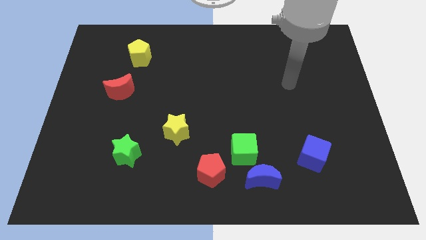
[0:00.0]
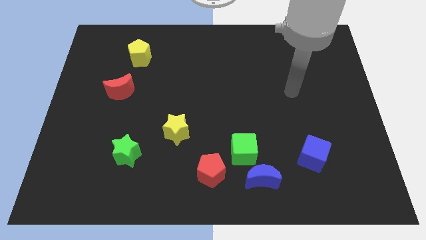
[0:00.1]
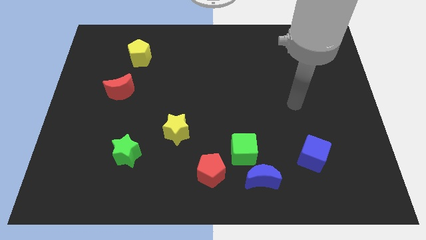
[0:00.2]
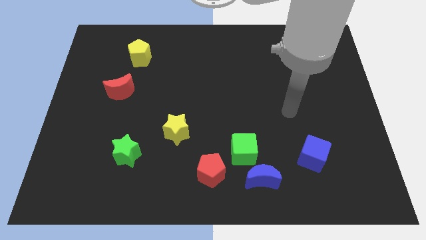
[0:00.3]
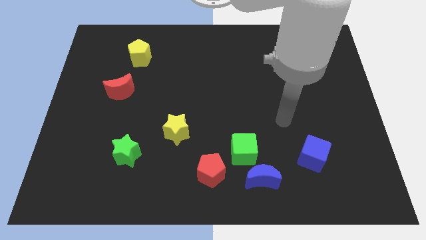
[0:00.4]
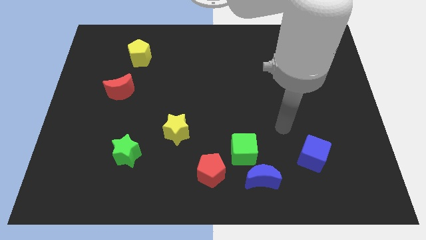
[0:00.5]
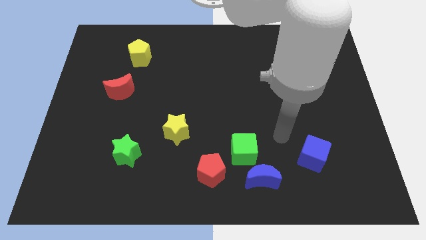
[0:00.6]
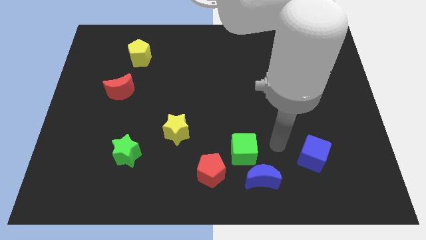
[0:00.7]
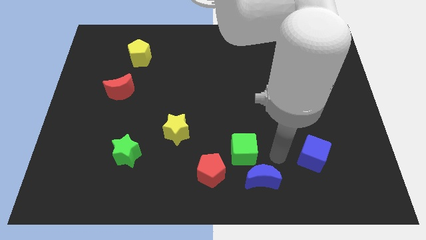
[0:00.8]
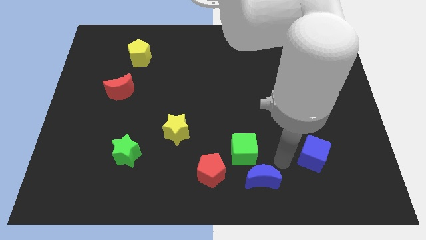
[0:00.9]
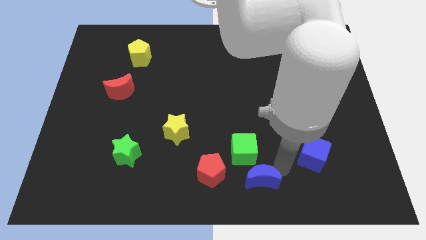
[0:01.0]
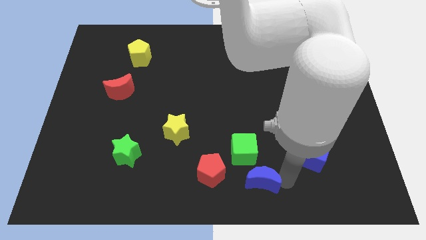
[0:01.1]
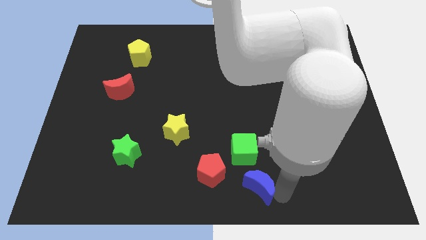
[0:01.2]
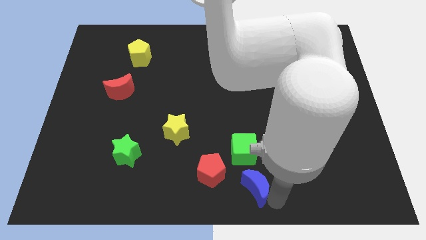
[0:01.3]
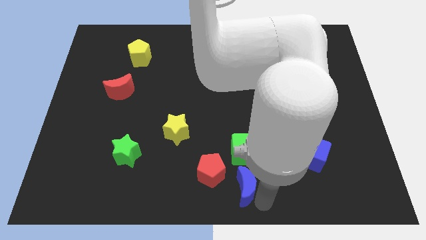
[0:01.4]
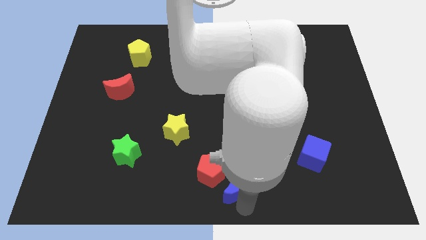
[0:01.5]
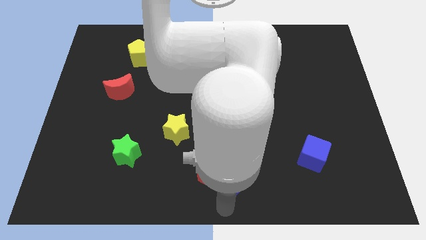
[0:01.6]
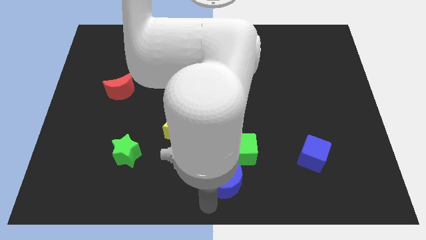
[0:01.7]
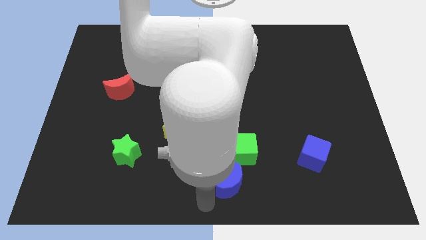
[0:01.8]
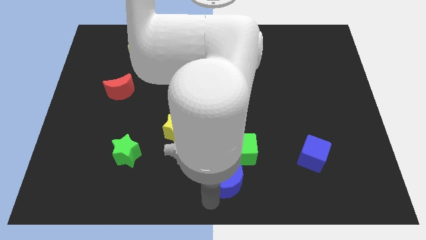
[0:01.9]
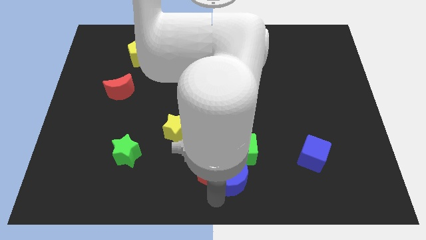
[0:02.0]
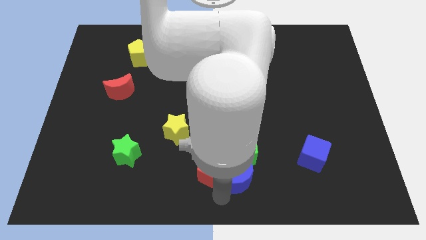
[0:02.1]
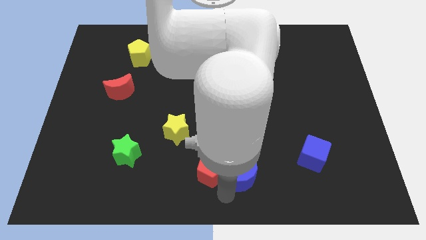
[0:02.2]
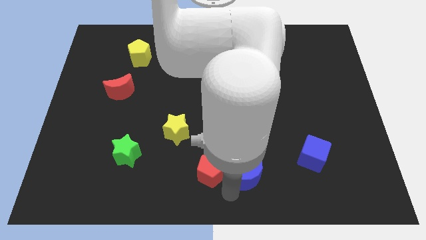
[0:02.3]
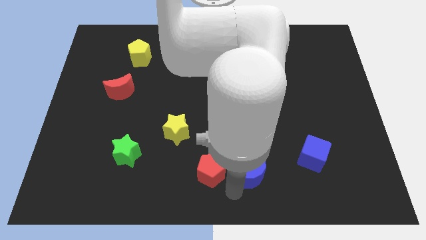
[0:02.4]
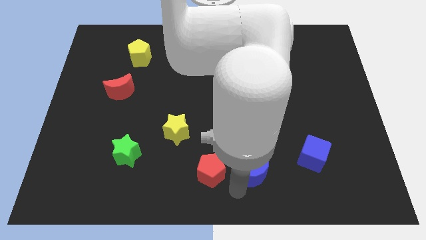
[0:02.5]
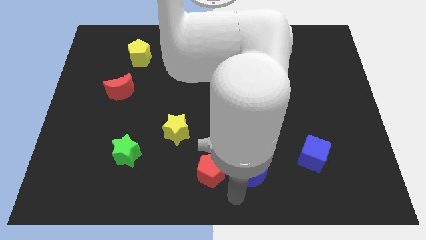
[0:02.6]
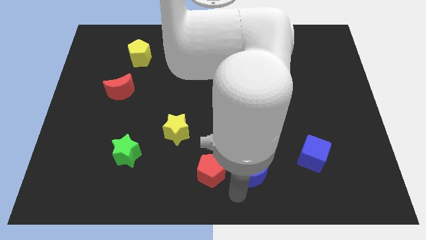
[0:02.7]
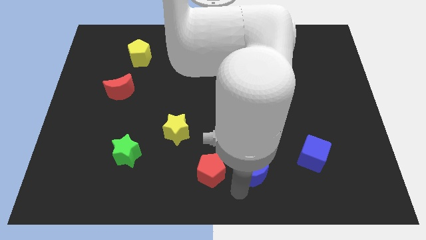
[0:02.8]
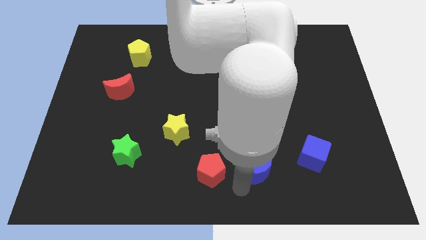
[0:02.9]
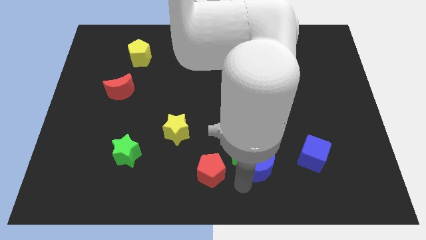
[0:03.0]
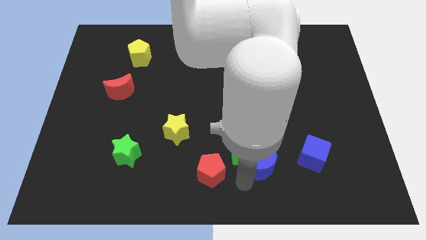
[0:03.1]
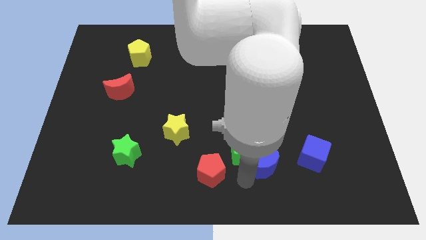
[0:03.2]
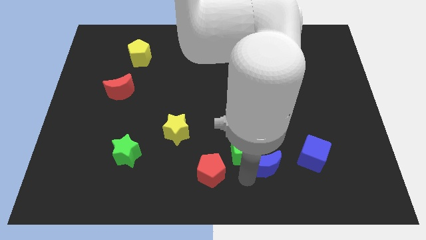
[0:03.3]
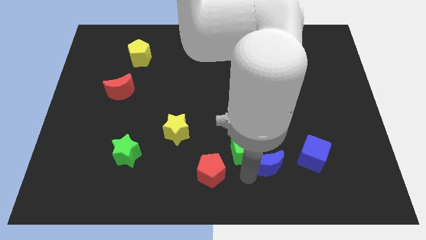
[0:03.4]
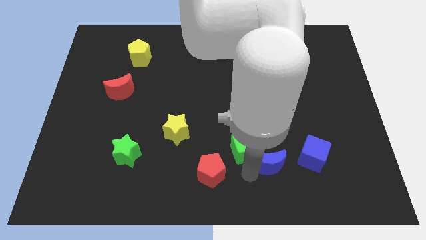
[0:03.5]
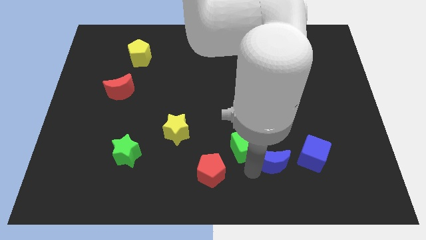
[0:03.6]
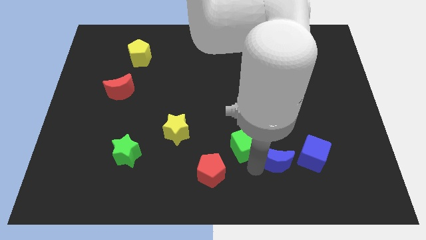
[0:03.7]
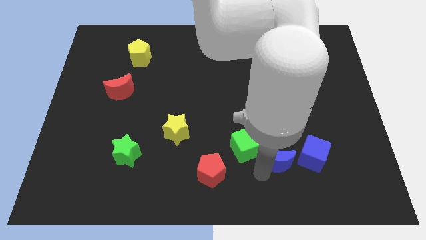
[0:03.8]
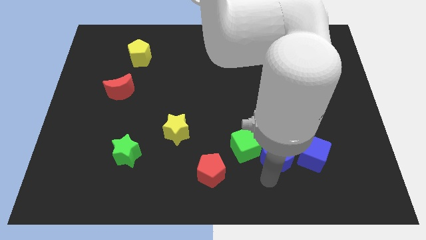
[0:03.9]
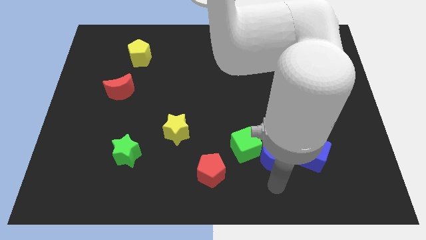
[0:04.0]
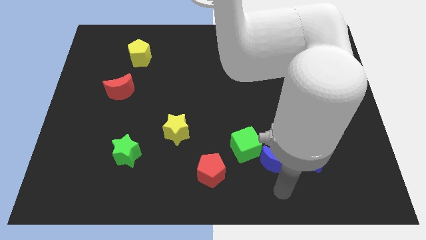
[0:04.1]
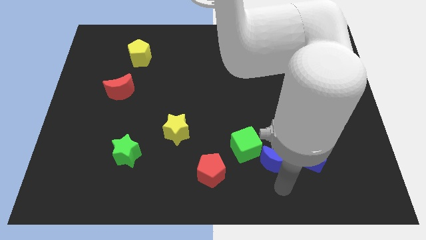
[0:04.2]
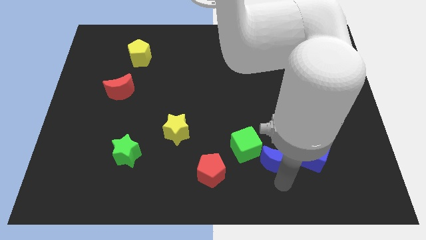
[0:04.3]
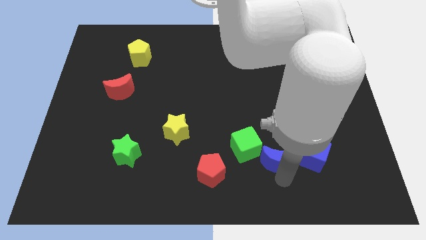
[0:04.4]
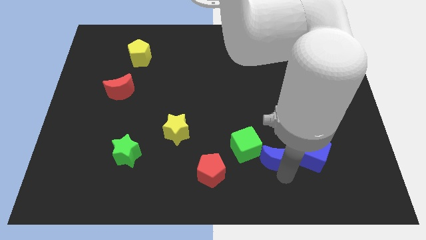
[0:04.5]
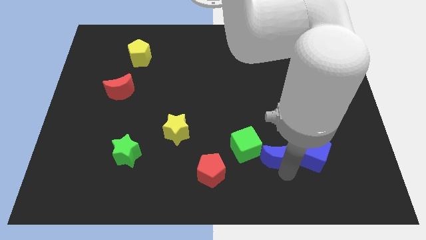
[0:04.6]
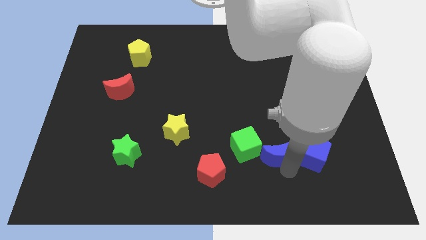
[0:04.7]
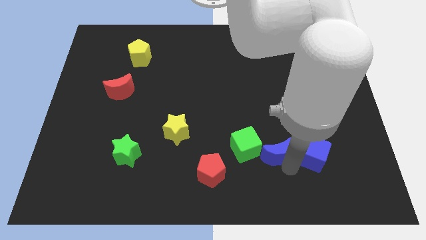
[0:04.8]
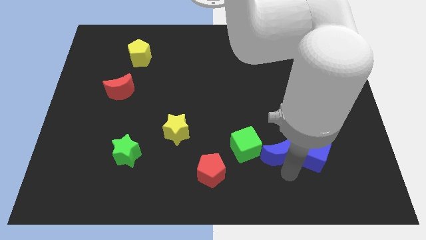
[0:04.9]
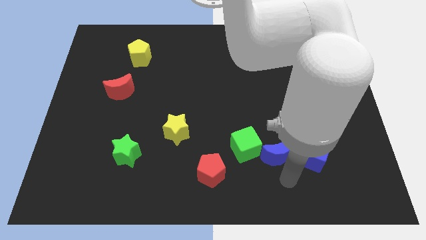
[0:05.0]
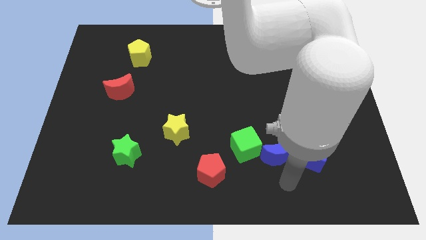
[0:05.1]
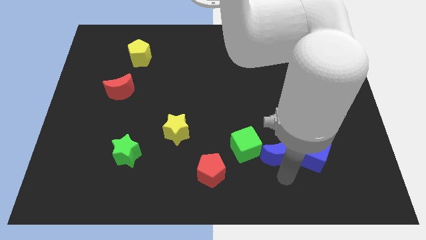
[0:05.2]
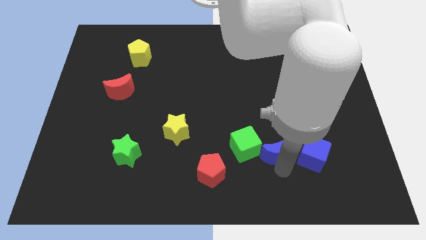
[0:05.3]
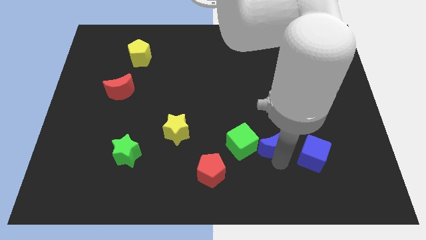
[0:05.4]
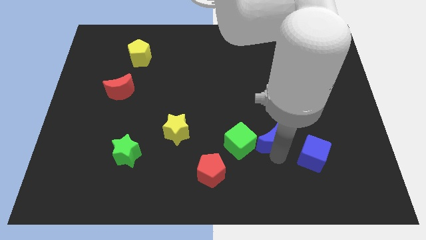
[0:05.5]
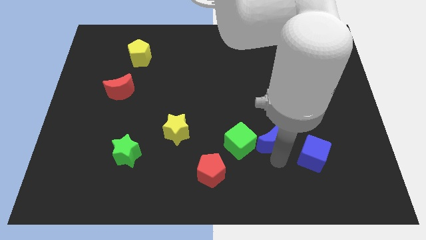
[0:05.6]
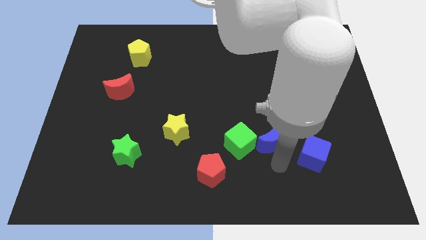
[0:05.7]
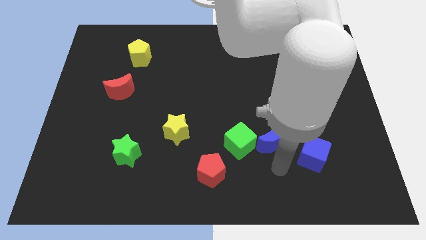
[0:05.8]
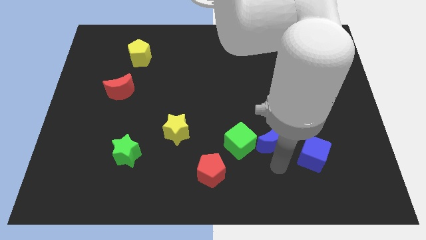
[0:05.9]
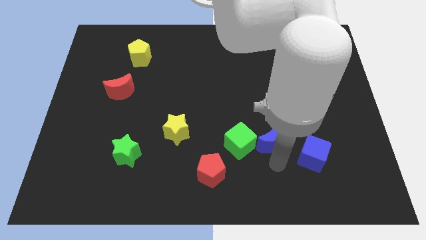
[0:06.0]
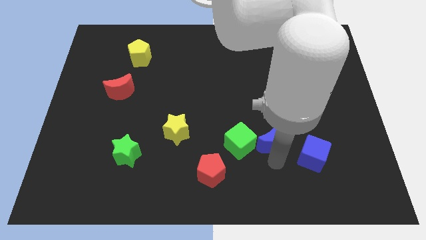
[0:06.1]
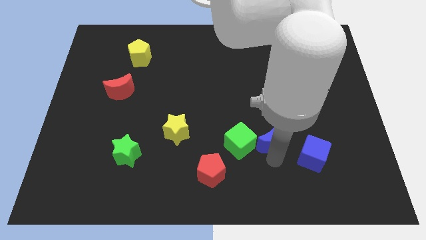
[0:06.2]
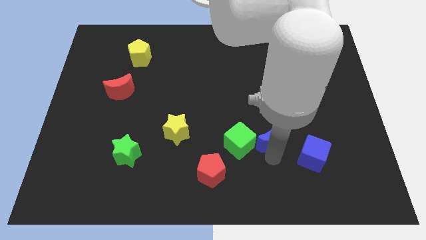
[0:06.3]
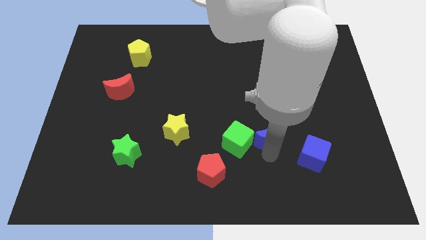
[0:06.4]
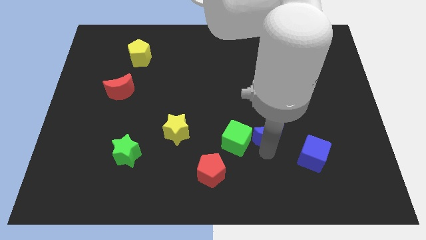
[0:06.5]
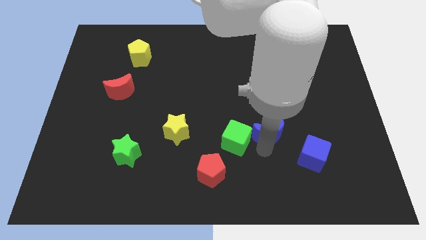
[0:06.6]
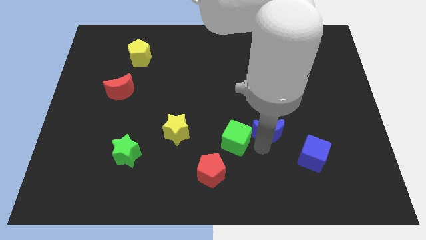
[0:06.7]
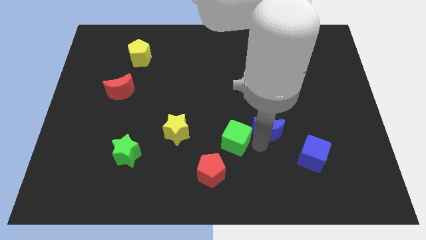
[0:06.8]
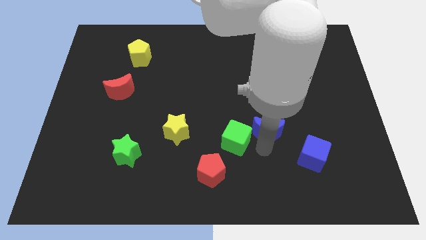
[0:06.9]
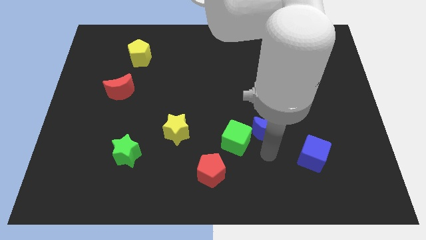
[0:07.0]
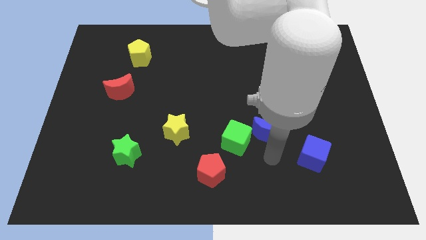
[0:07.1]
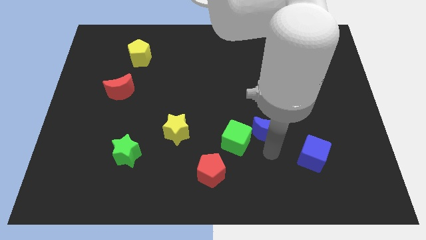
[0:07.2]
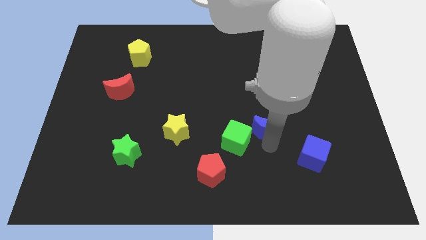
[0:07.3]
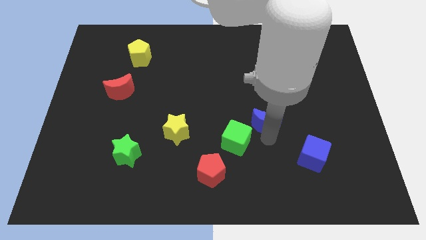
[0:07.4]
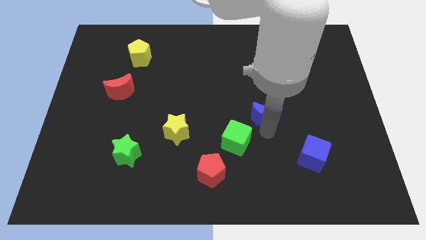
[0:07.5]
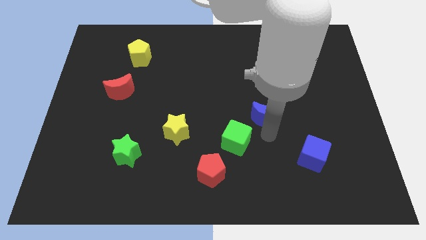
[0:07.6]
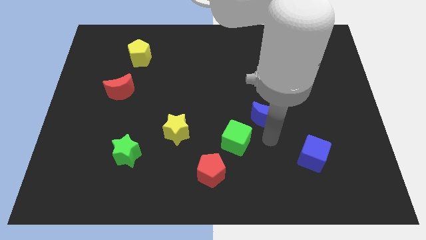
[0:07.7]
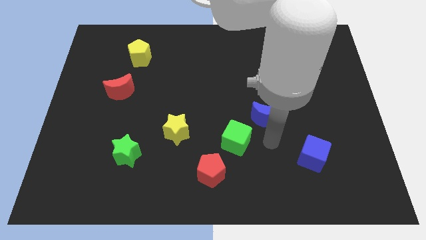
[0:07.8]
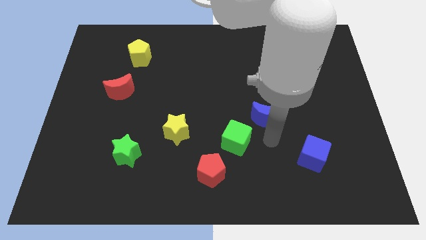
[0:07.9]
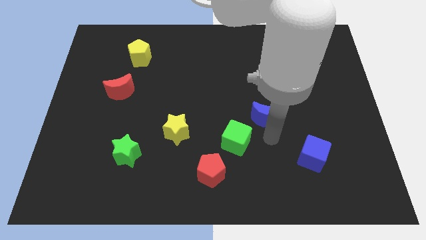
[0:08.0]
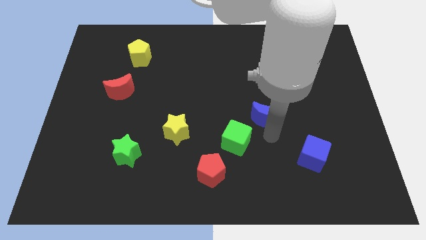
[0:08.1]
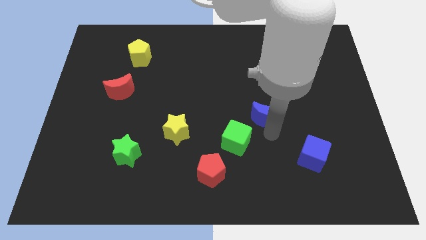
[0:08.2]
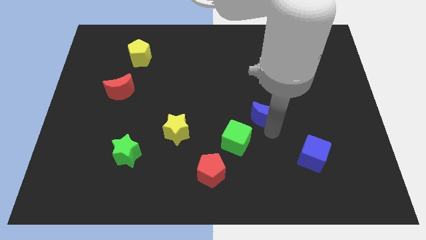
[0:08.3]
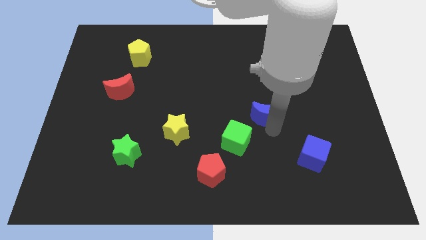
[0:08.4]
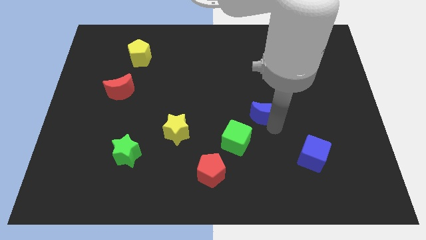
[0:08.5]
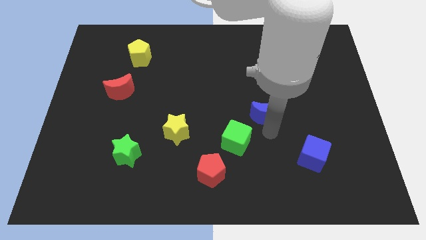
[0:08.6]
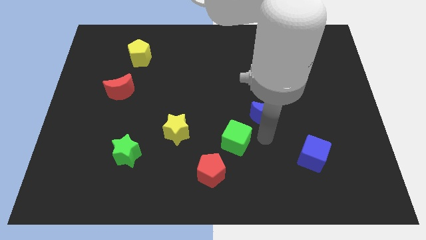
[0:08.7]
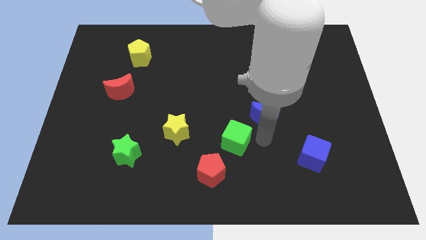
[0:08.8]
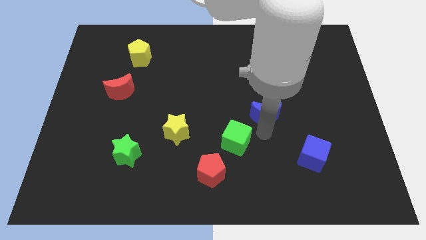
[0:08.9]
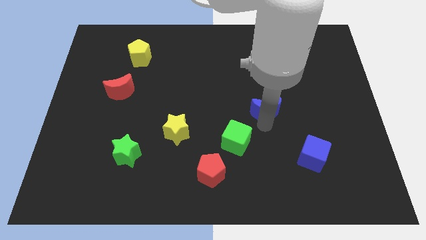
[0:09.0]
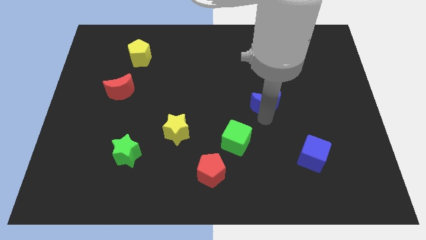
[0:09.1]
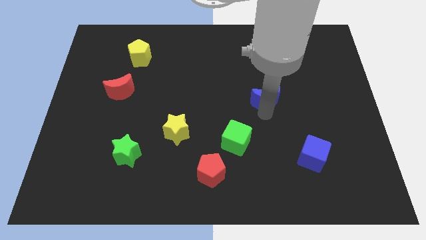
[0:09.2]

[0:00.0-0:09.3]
push the blue moon upwards
